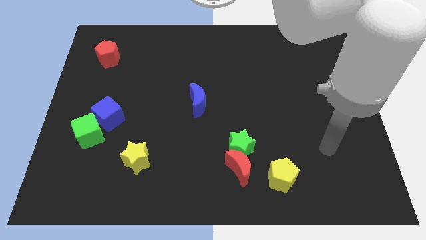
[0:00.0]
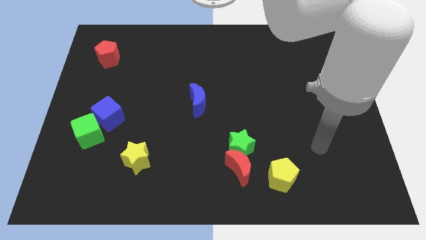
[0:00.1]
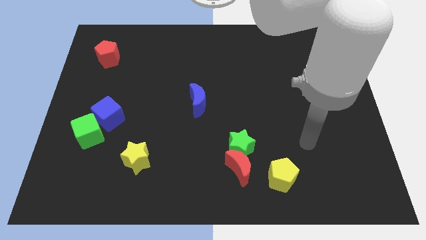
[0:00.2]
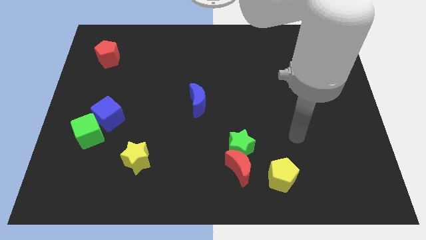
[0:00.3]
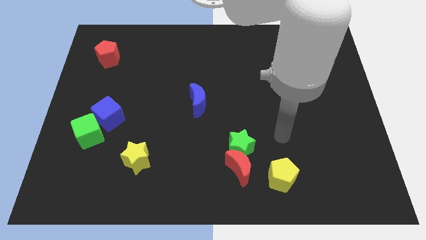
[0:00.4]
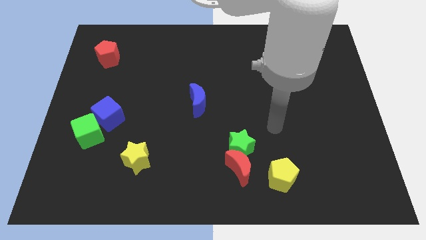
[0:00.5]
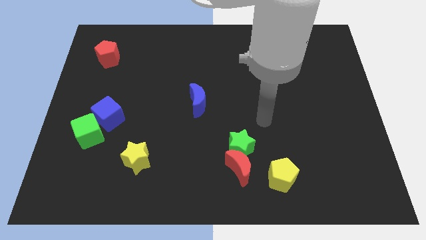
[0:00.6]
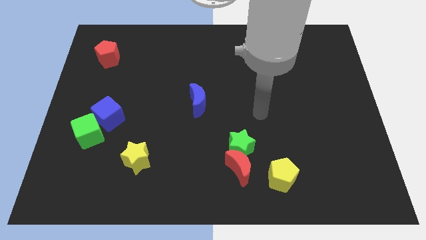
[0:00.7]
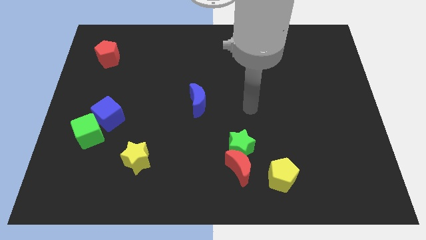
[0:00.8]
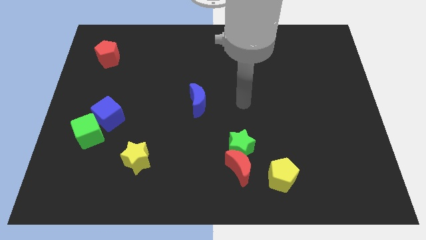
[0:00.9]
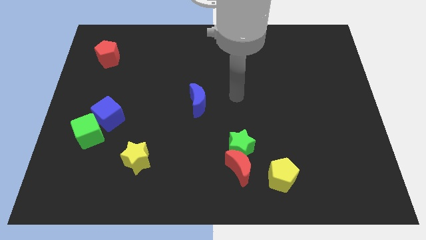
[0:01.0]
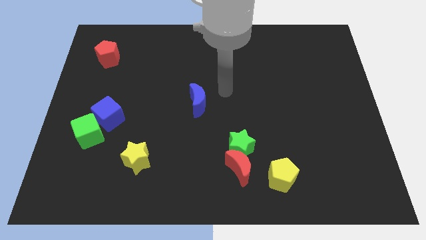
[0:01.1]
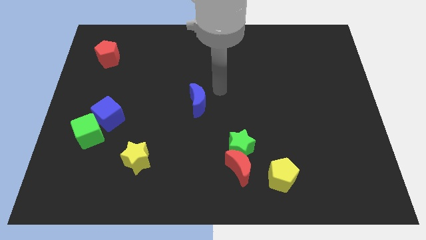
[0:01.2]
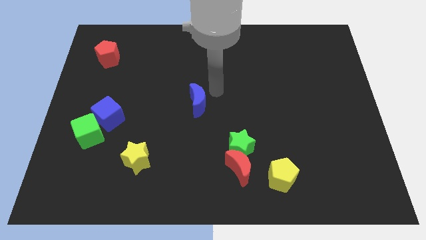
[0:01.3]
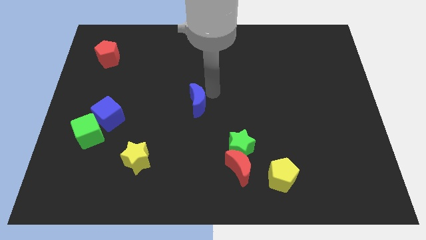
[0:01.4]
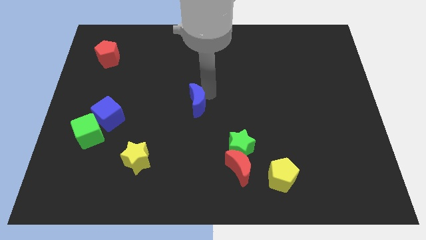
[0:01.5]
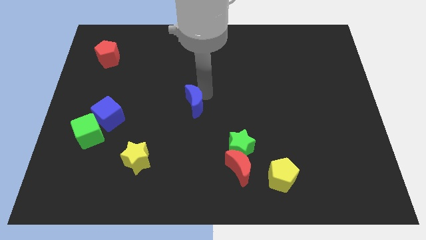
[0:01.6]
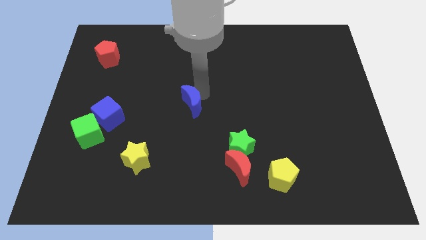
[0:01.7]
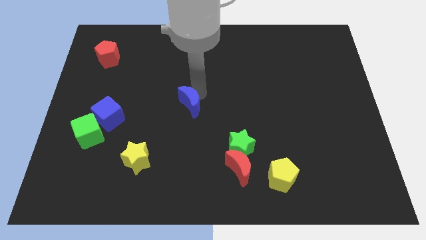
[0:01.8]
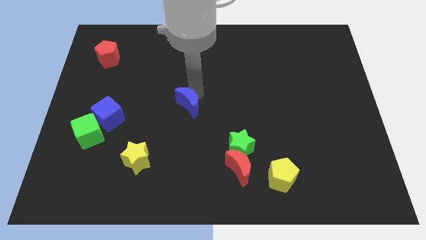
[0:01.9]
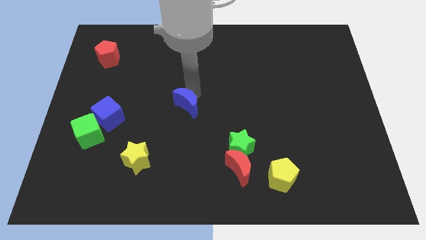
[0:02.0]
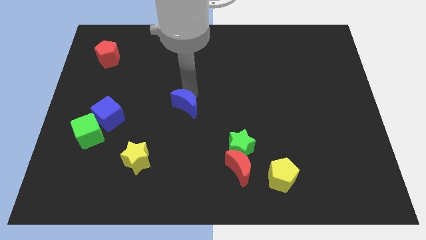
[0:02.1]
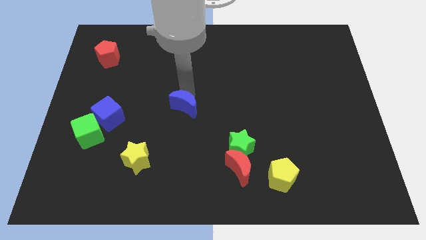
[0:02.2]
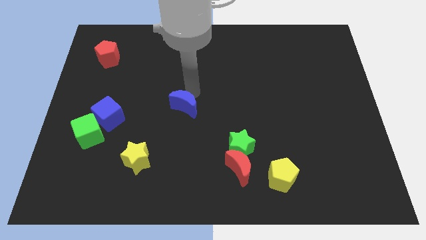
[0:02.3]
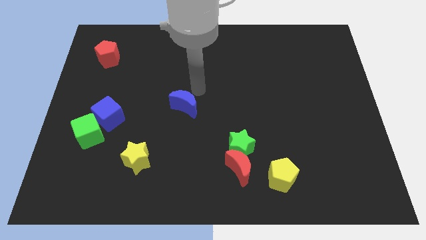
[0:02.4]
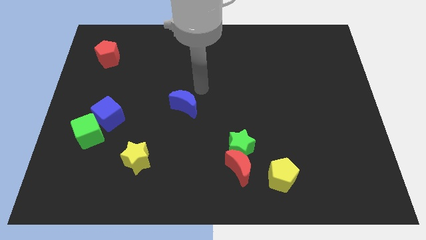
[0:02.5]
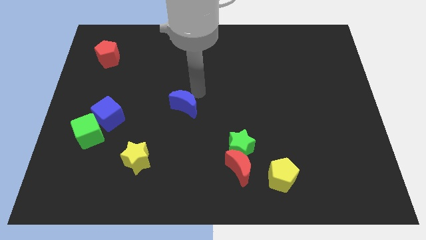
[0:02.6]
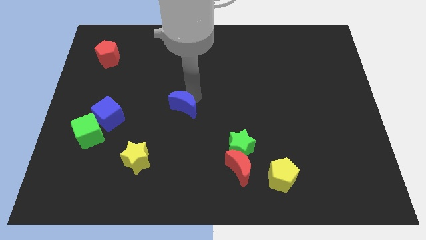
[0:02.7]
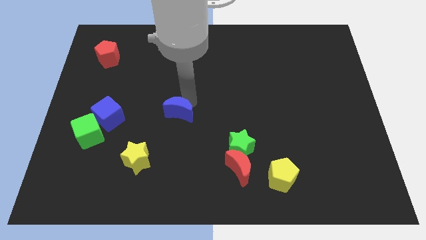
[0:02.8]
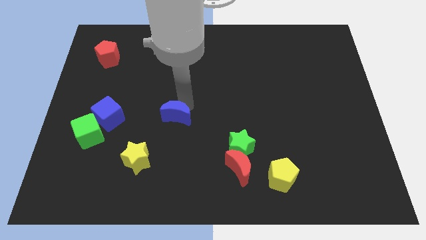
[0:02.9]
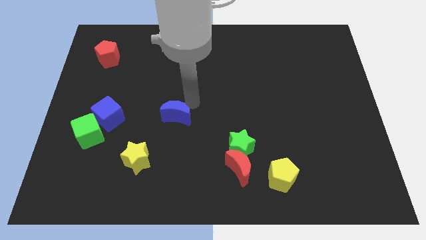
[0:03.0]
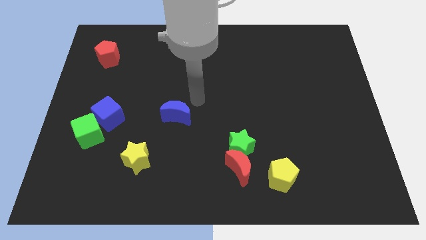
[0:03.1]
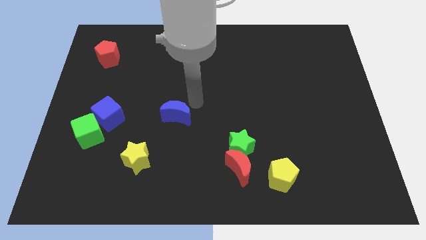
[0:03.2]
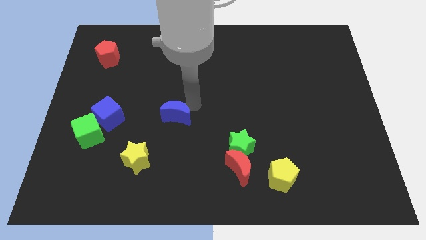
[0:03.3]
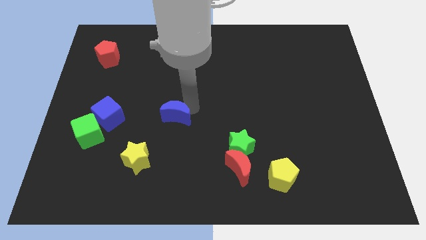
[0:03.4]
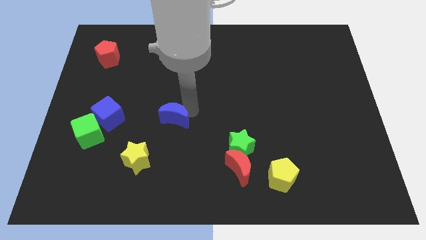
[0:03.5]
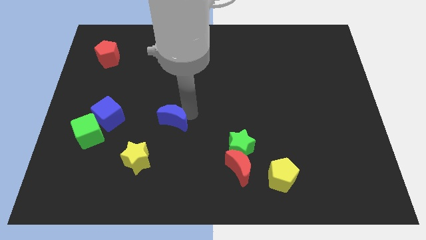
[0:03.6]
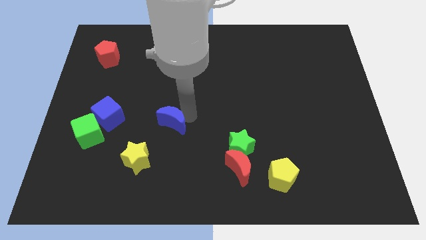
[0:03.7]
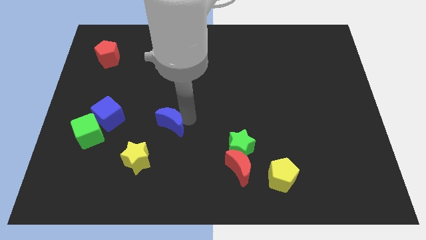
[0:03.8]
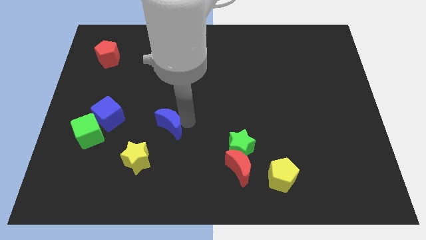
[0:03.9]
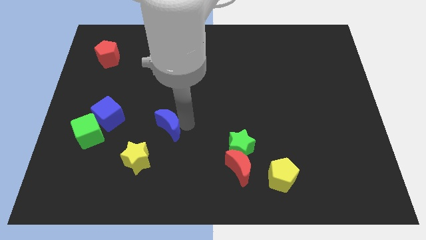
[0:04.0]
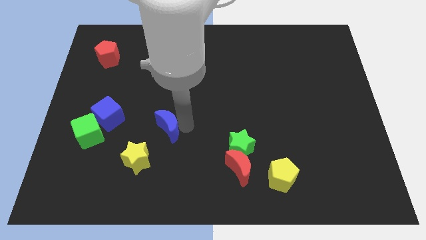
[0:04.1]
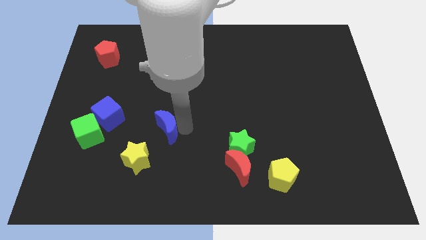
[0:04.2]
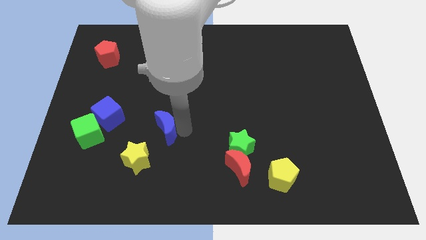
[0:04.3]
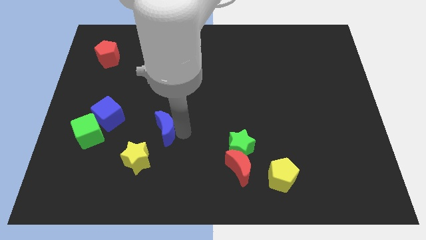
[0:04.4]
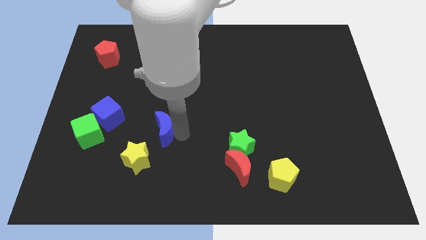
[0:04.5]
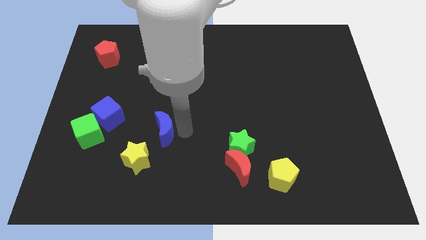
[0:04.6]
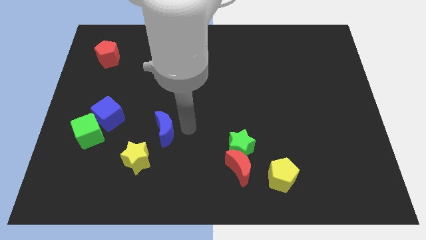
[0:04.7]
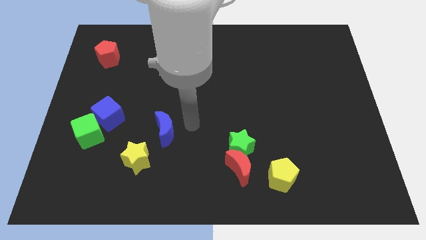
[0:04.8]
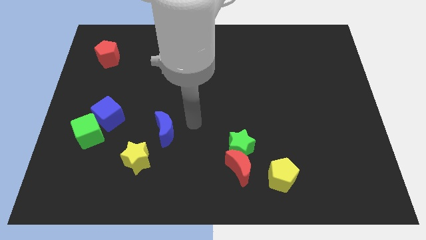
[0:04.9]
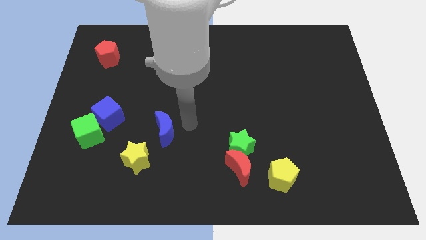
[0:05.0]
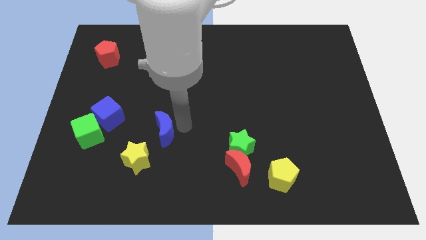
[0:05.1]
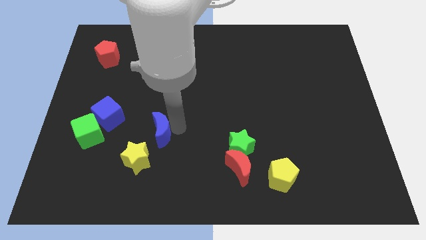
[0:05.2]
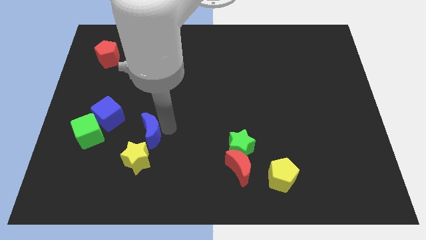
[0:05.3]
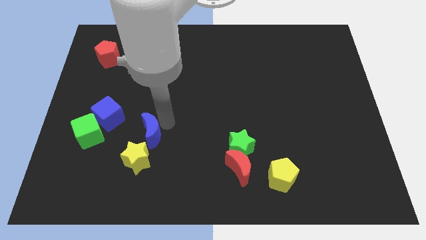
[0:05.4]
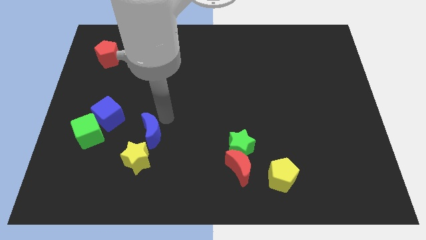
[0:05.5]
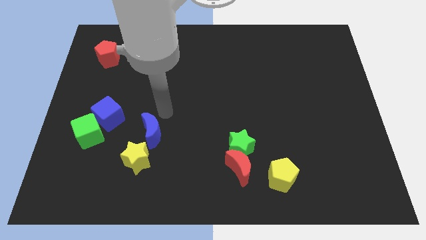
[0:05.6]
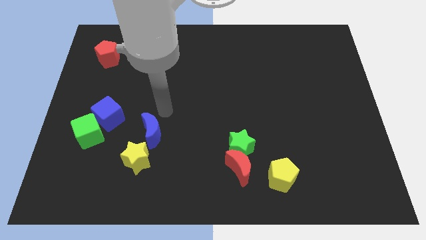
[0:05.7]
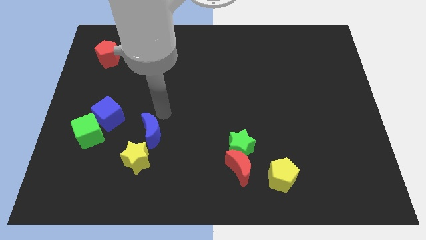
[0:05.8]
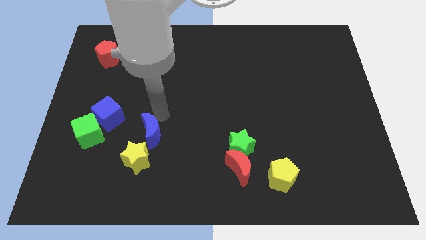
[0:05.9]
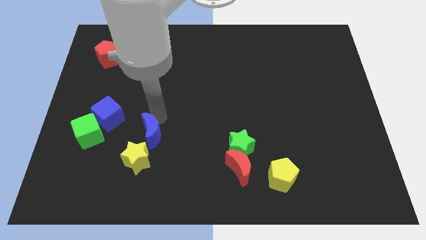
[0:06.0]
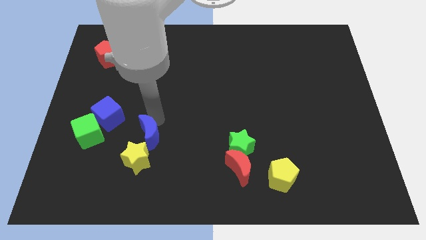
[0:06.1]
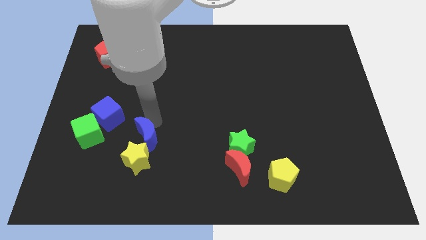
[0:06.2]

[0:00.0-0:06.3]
slide the blue moon close to the yellow star

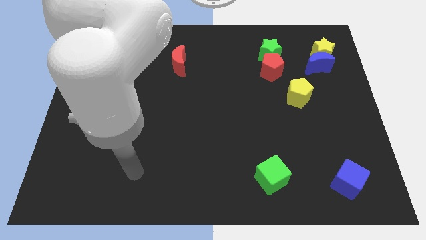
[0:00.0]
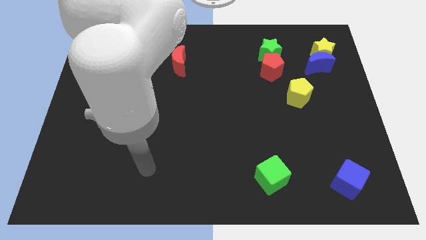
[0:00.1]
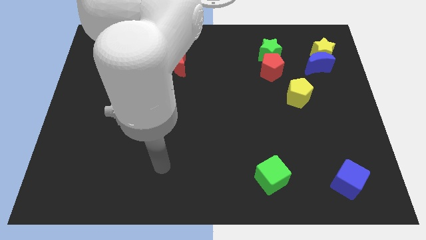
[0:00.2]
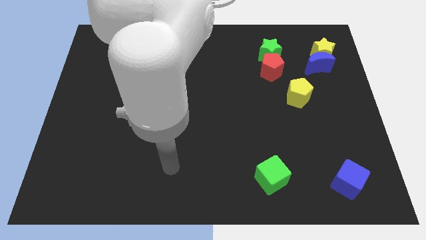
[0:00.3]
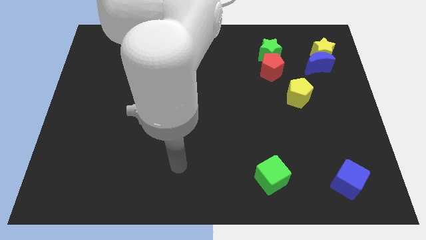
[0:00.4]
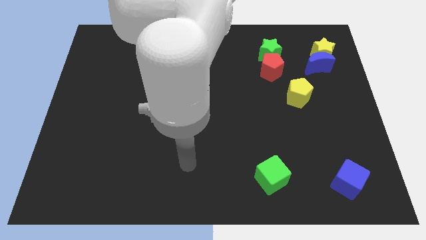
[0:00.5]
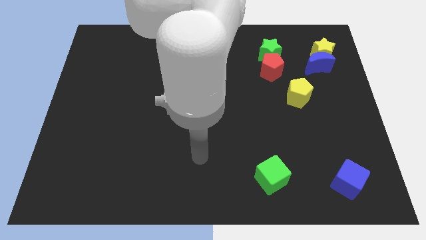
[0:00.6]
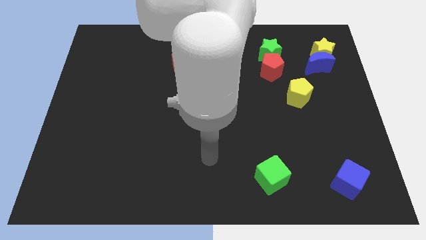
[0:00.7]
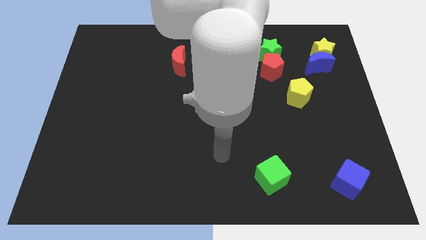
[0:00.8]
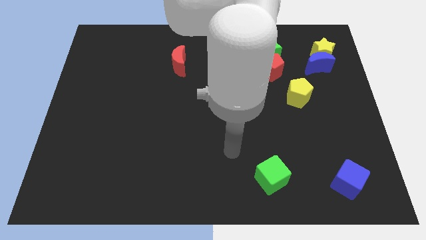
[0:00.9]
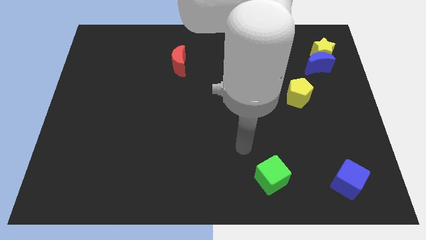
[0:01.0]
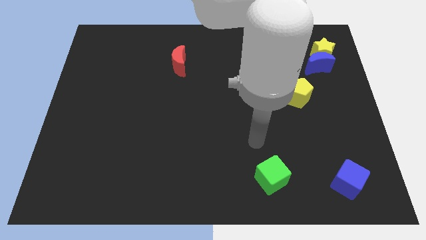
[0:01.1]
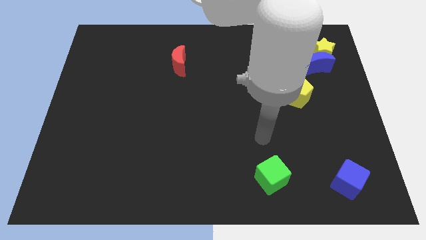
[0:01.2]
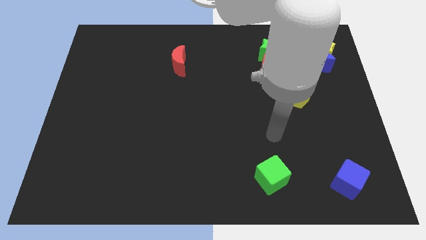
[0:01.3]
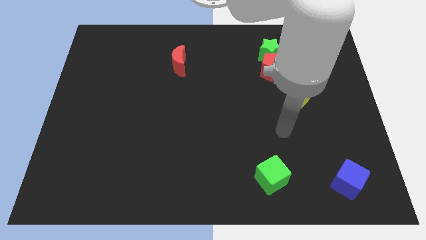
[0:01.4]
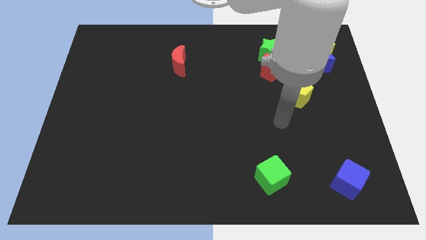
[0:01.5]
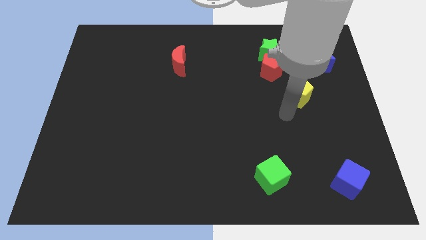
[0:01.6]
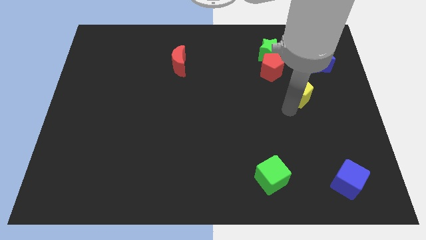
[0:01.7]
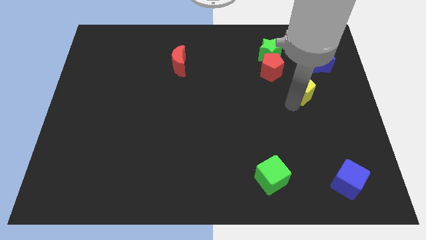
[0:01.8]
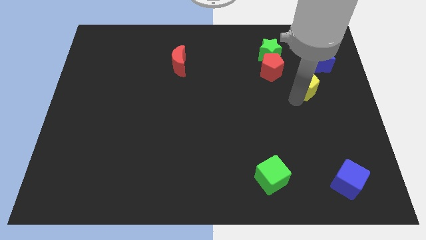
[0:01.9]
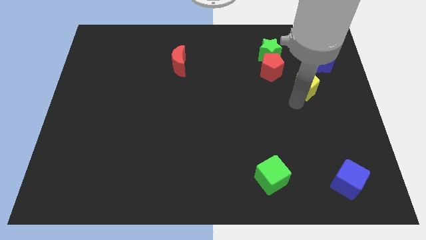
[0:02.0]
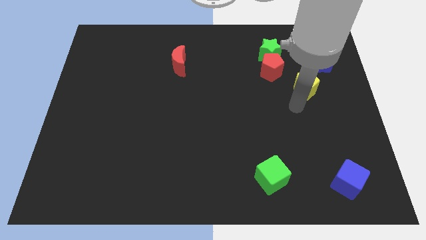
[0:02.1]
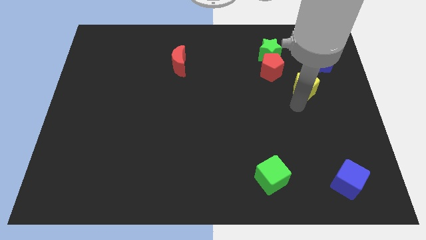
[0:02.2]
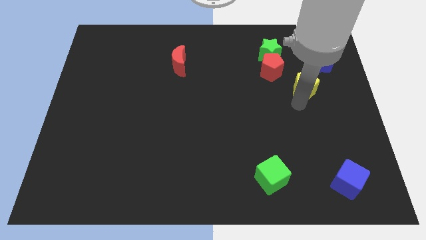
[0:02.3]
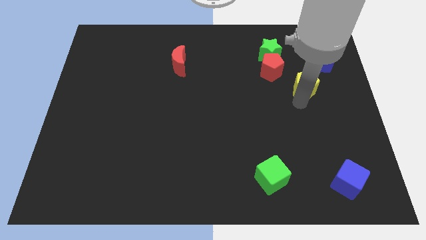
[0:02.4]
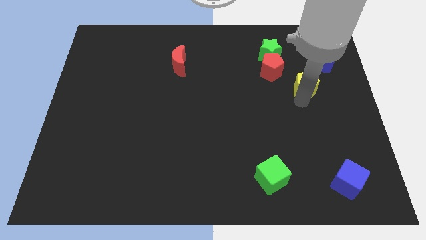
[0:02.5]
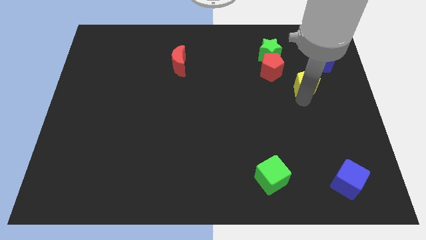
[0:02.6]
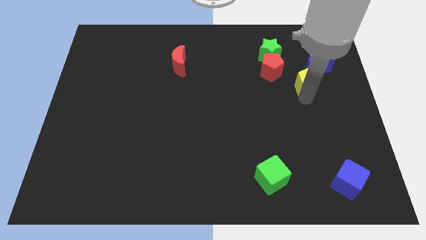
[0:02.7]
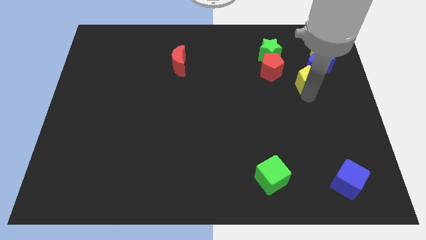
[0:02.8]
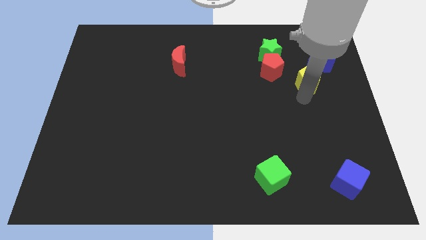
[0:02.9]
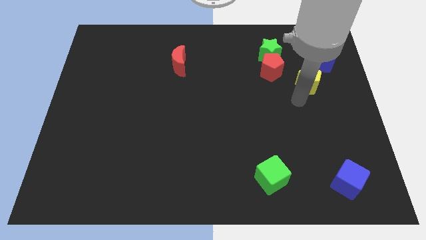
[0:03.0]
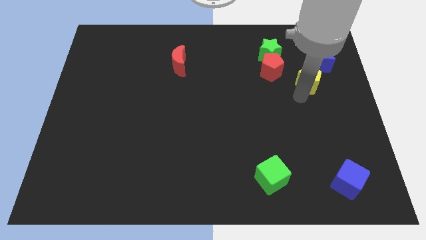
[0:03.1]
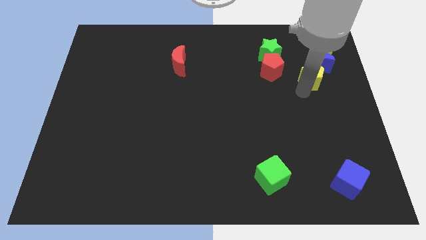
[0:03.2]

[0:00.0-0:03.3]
slide the yellow pentagon next to the blue moon
